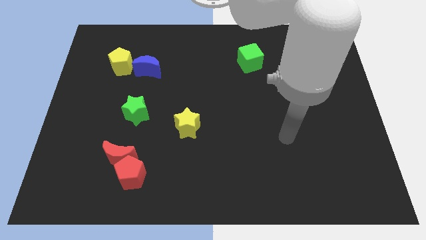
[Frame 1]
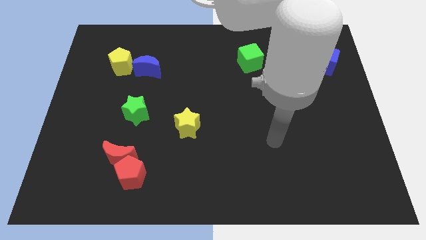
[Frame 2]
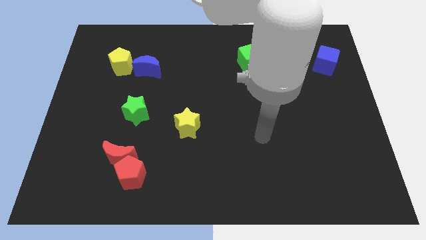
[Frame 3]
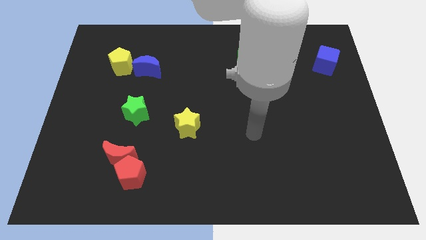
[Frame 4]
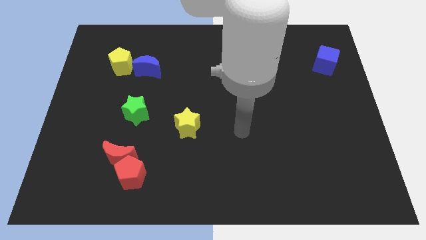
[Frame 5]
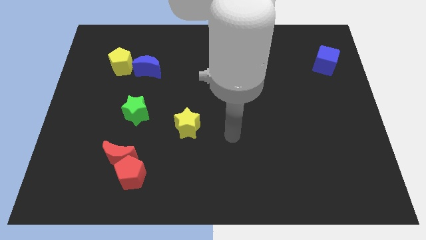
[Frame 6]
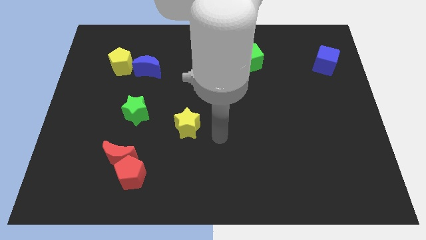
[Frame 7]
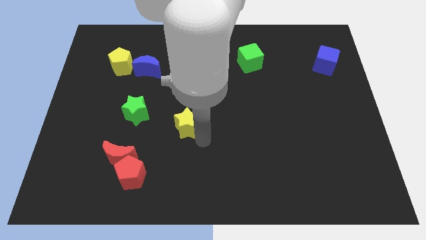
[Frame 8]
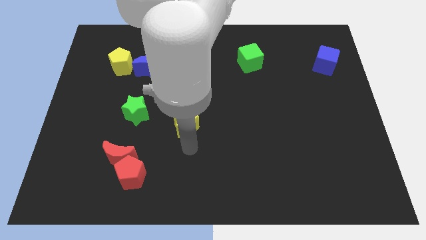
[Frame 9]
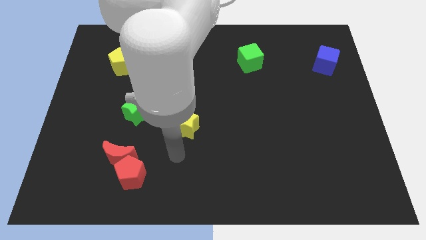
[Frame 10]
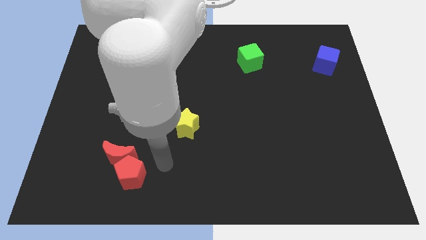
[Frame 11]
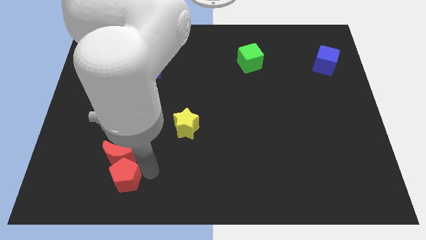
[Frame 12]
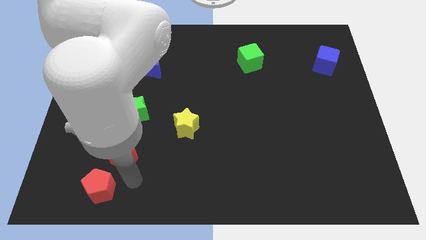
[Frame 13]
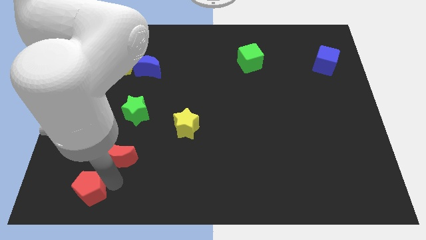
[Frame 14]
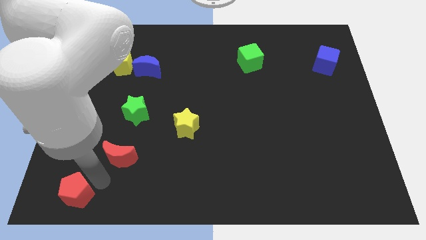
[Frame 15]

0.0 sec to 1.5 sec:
separate the red moon from the red pentagon

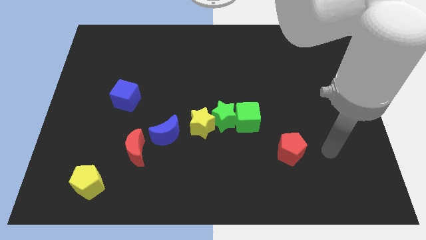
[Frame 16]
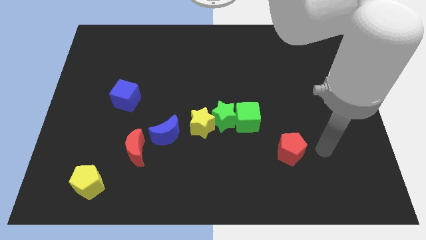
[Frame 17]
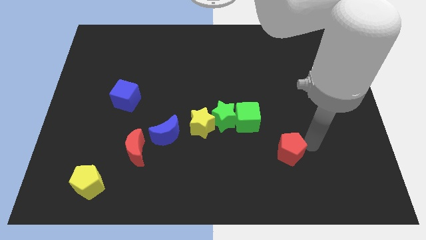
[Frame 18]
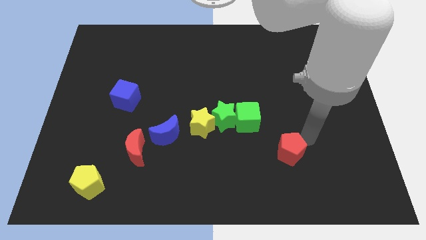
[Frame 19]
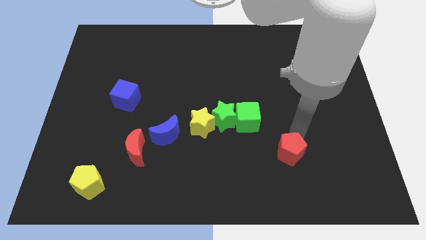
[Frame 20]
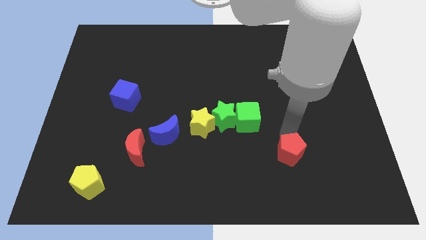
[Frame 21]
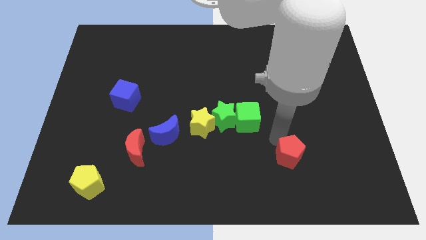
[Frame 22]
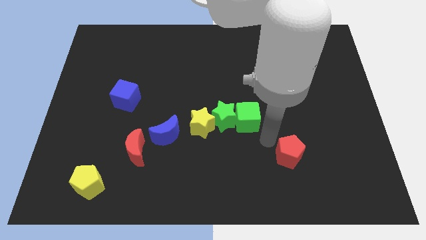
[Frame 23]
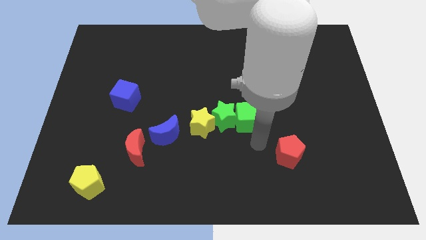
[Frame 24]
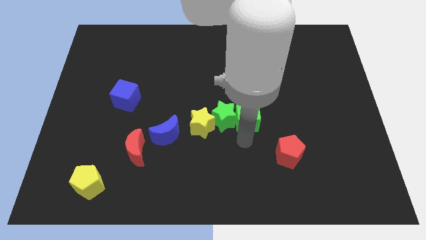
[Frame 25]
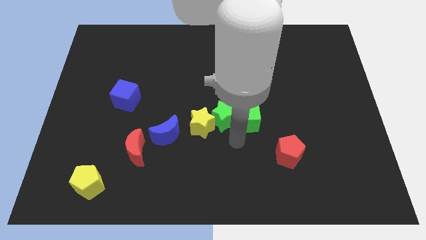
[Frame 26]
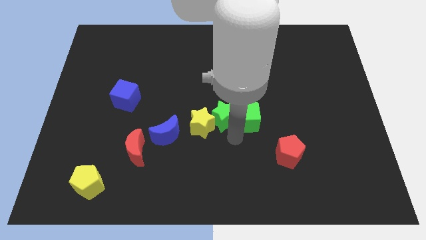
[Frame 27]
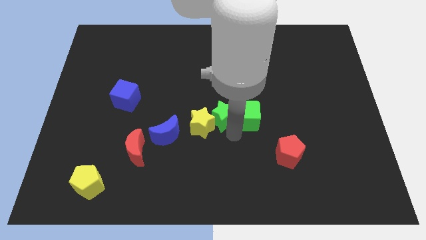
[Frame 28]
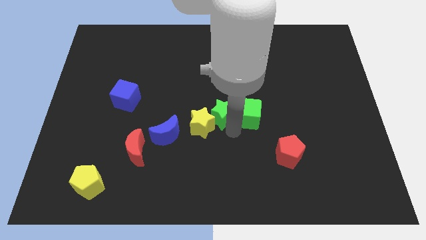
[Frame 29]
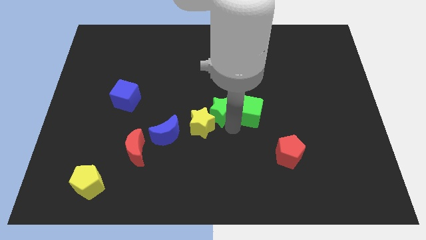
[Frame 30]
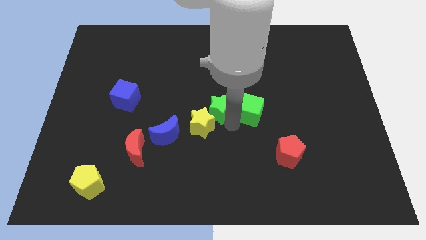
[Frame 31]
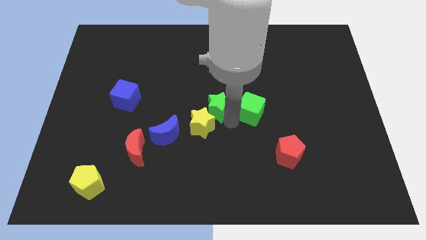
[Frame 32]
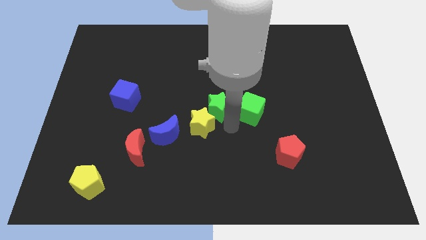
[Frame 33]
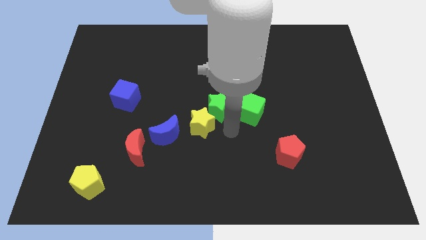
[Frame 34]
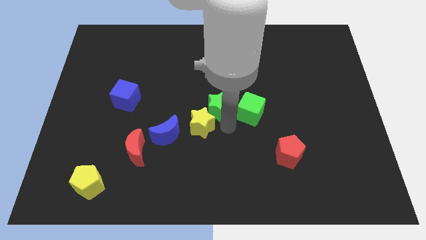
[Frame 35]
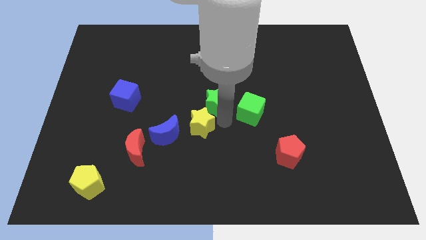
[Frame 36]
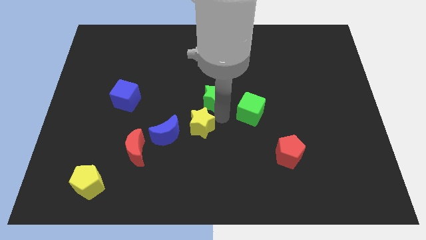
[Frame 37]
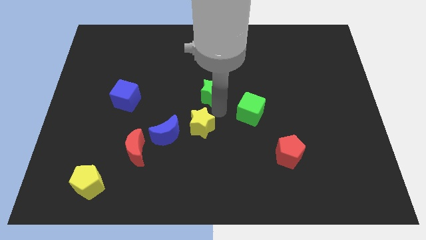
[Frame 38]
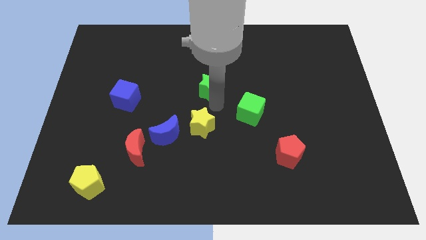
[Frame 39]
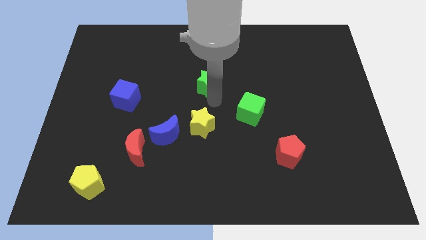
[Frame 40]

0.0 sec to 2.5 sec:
move the green star away from the yellow star and green cube

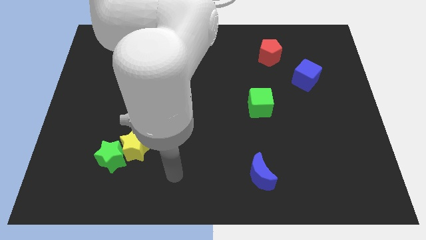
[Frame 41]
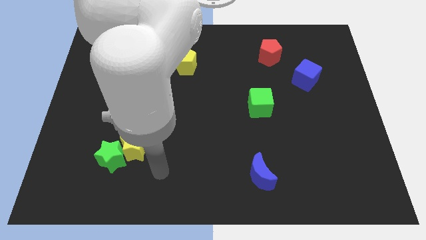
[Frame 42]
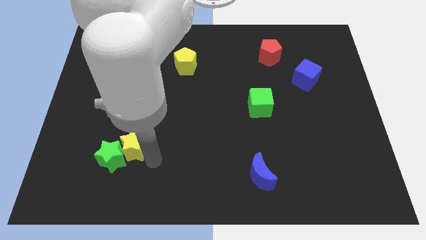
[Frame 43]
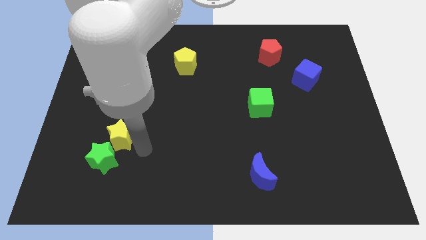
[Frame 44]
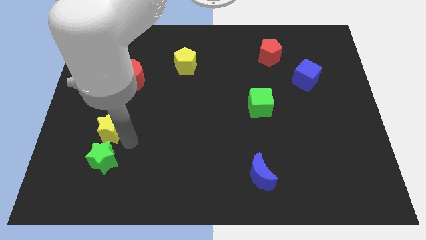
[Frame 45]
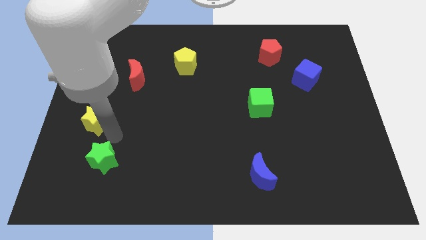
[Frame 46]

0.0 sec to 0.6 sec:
separate the green star from the yellow star

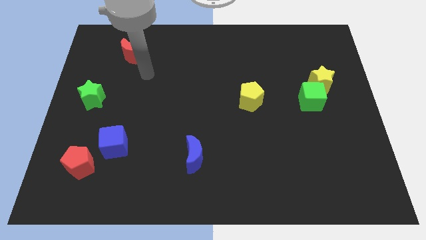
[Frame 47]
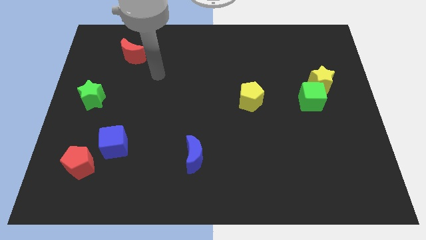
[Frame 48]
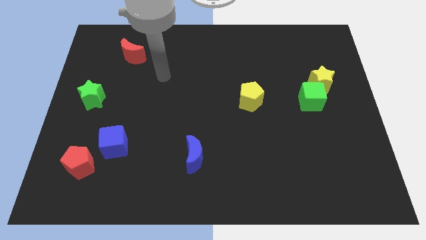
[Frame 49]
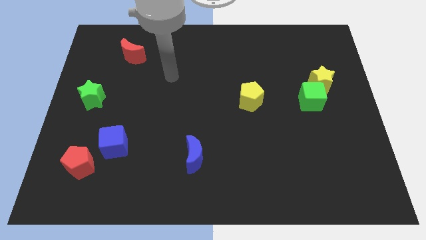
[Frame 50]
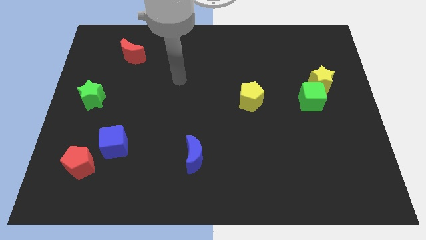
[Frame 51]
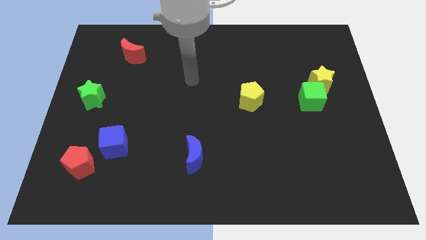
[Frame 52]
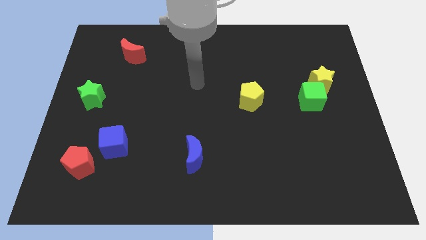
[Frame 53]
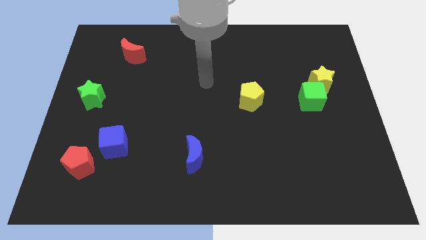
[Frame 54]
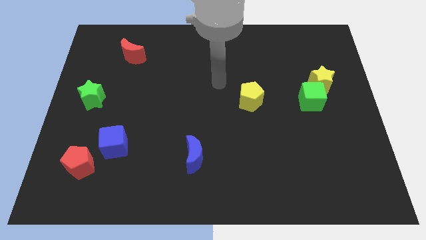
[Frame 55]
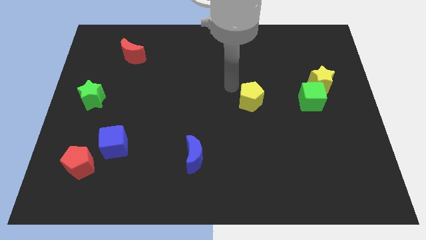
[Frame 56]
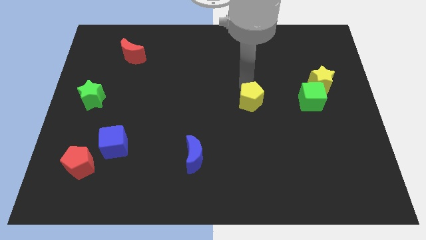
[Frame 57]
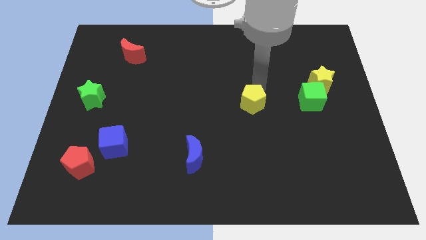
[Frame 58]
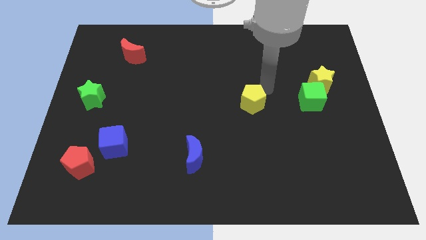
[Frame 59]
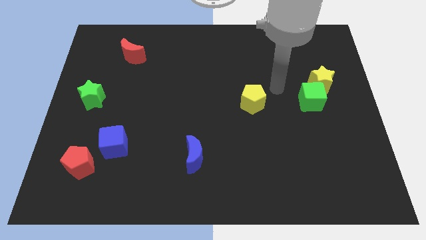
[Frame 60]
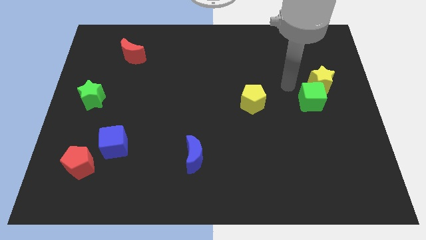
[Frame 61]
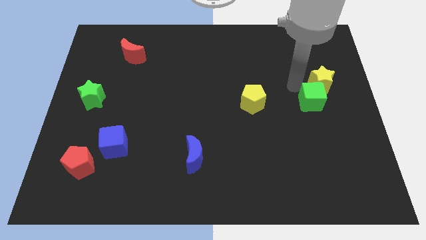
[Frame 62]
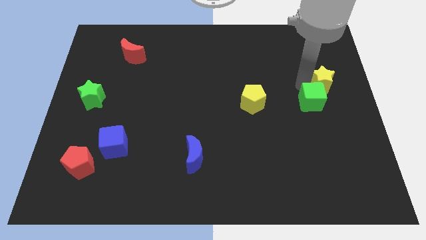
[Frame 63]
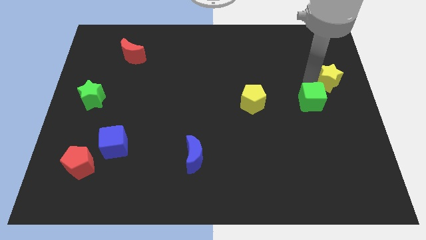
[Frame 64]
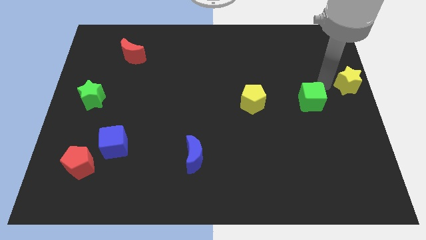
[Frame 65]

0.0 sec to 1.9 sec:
move the green cube away from the yellow star

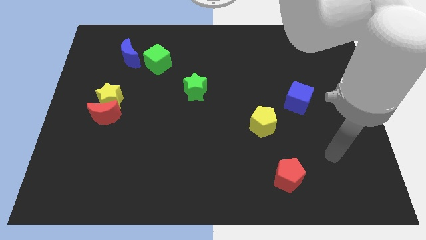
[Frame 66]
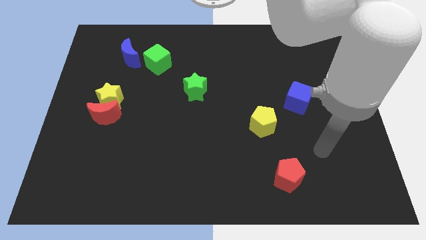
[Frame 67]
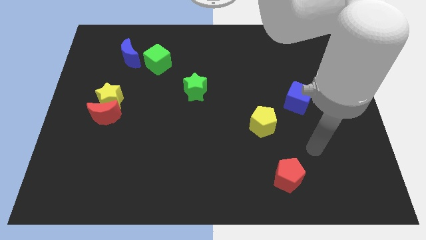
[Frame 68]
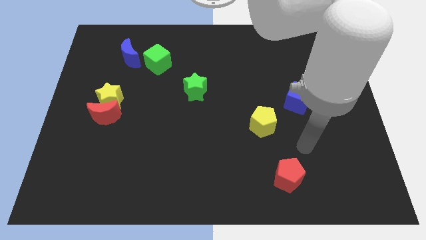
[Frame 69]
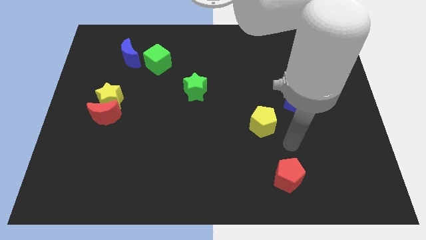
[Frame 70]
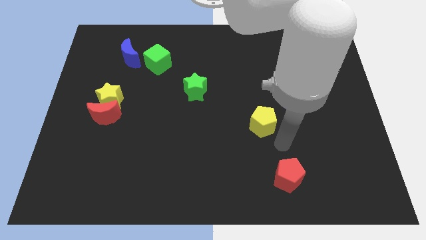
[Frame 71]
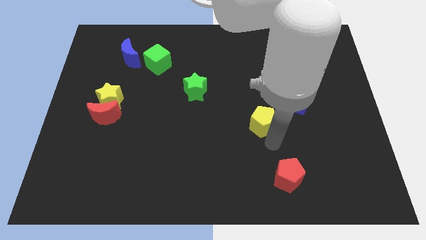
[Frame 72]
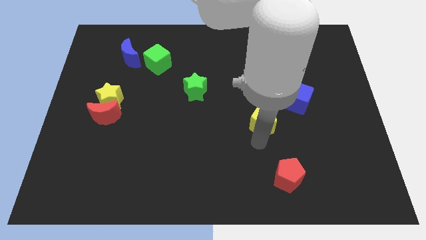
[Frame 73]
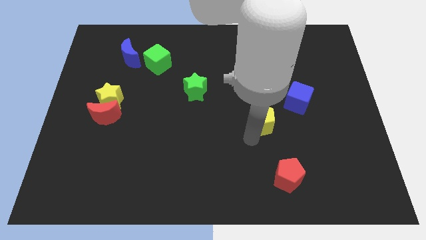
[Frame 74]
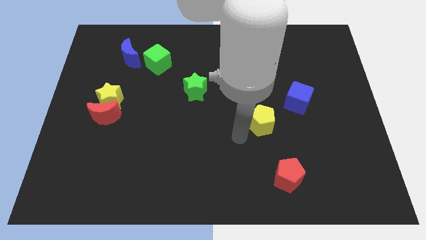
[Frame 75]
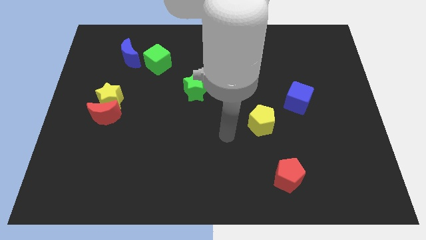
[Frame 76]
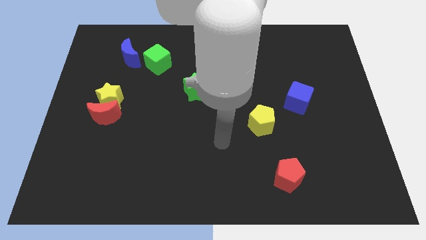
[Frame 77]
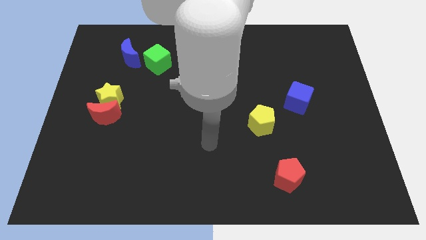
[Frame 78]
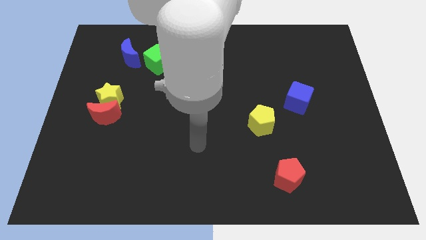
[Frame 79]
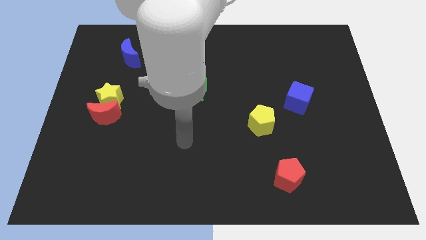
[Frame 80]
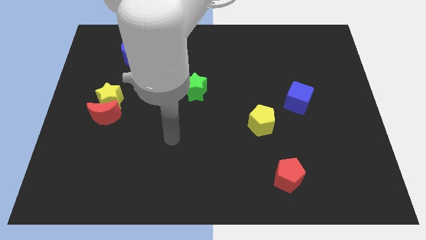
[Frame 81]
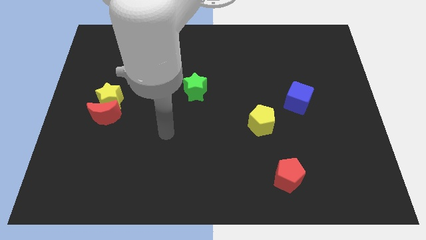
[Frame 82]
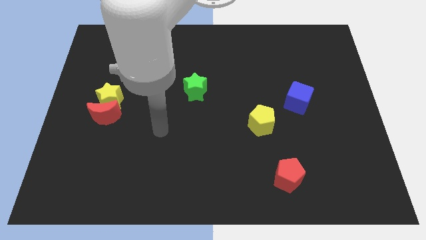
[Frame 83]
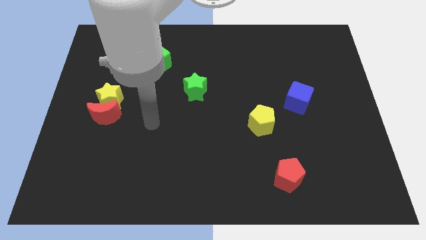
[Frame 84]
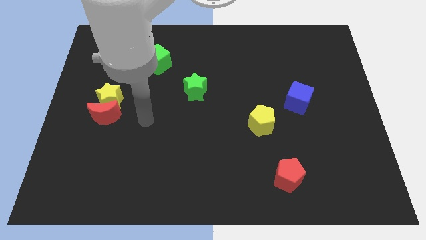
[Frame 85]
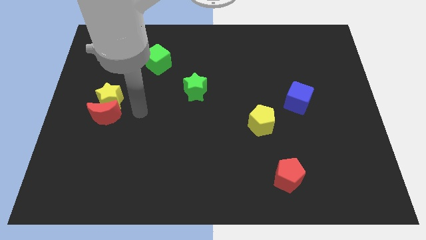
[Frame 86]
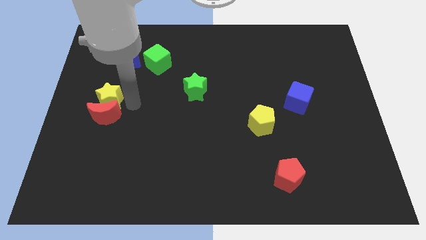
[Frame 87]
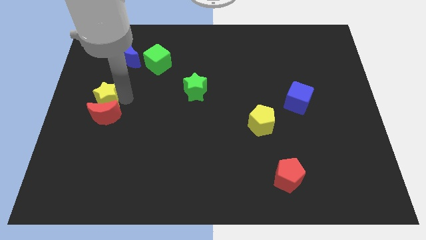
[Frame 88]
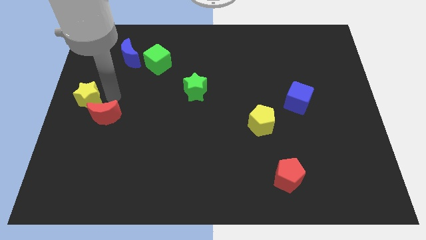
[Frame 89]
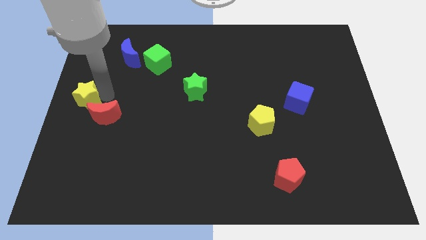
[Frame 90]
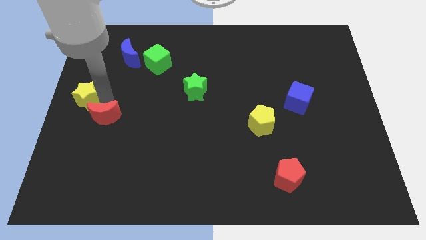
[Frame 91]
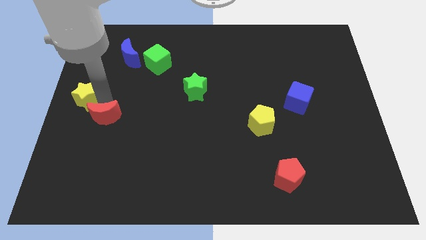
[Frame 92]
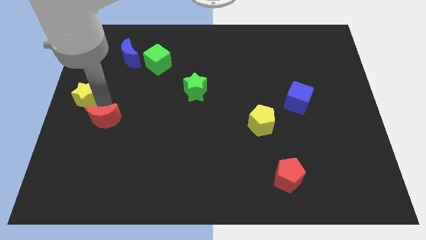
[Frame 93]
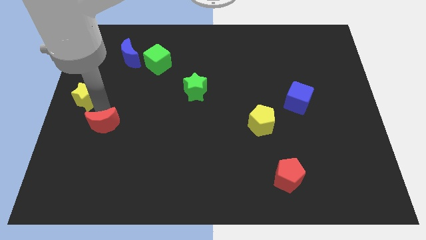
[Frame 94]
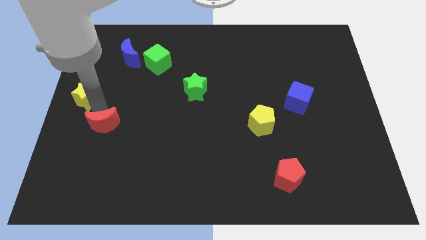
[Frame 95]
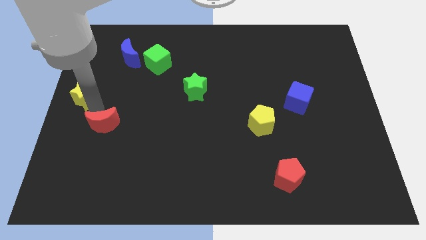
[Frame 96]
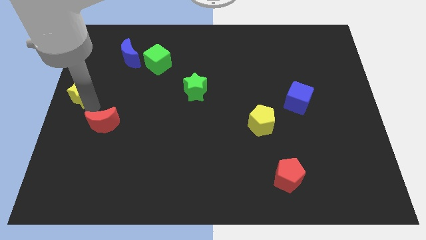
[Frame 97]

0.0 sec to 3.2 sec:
separate the red moon from the yellow star
